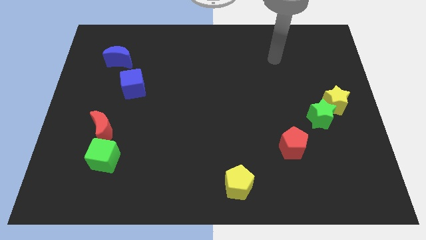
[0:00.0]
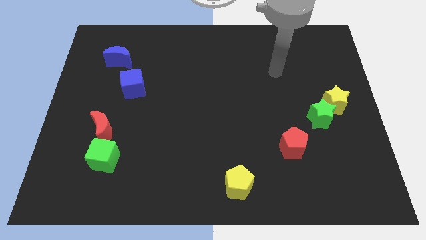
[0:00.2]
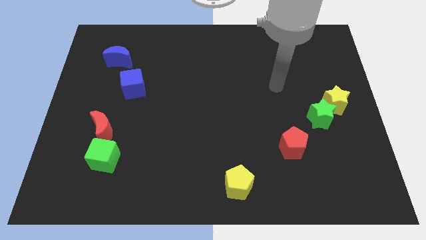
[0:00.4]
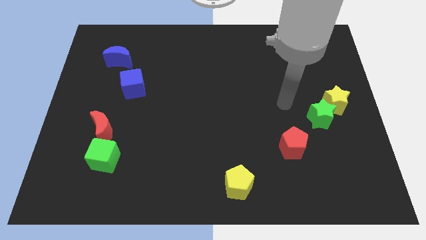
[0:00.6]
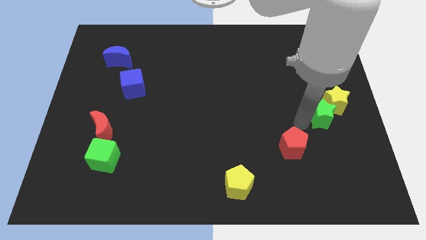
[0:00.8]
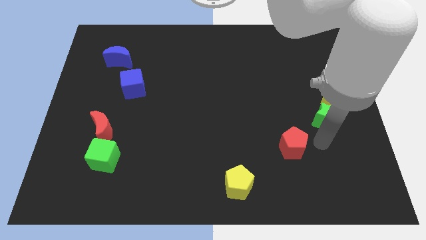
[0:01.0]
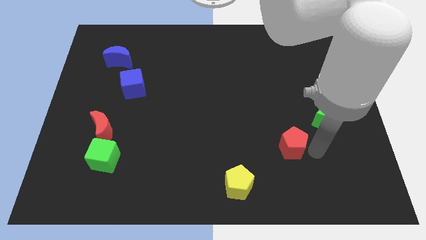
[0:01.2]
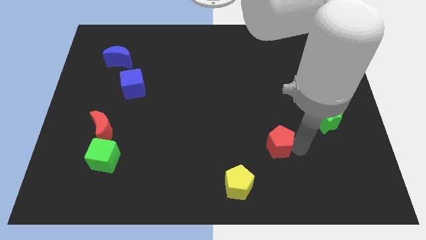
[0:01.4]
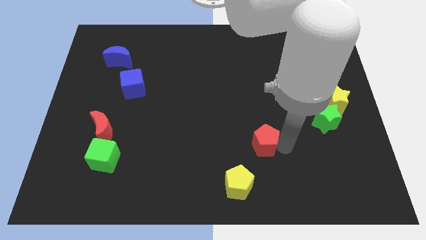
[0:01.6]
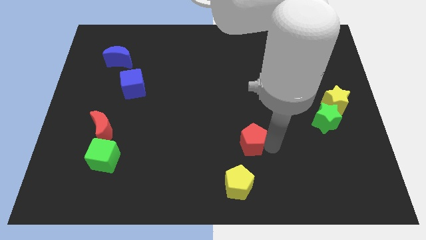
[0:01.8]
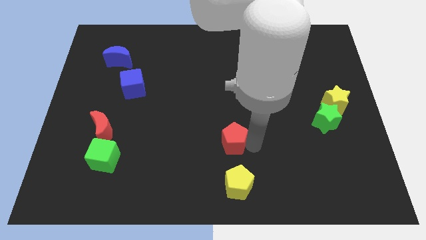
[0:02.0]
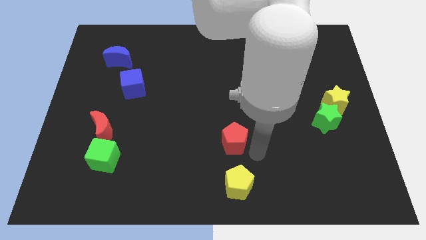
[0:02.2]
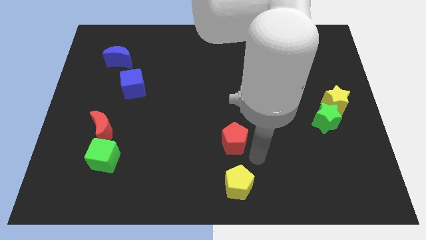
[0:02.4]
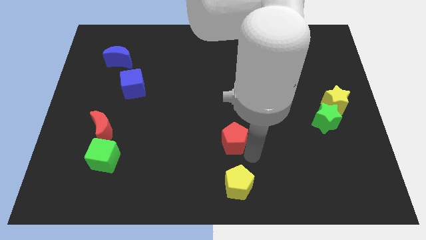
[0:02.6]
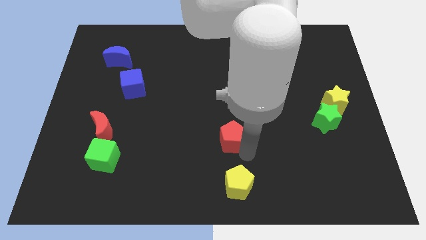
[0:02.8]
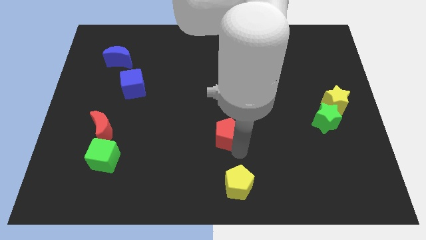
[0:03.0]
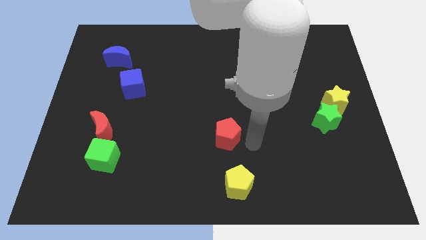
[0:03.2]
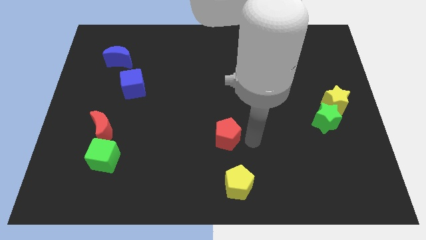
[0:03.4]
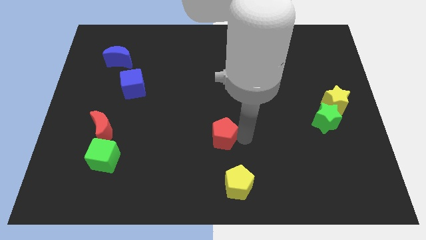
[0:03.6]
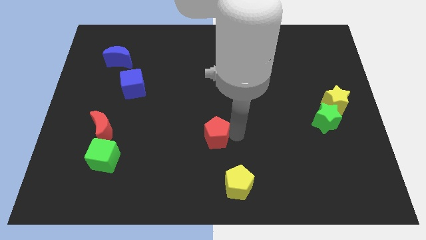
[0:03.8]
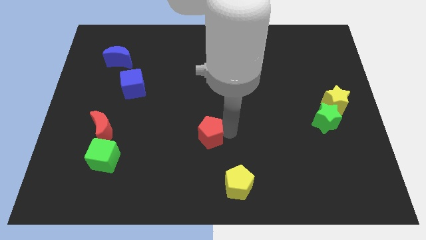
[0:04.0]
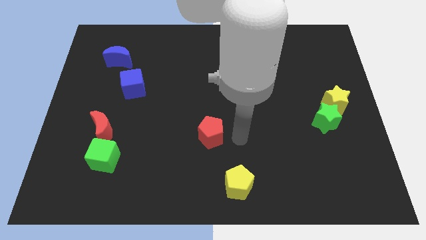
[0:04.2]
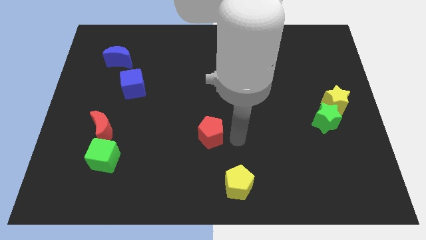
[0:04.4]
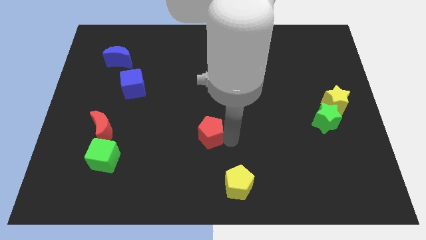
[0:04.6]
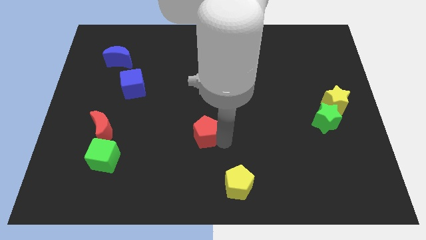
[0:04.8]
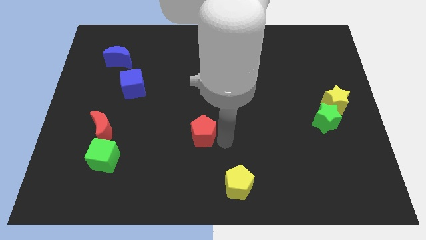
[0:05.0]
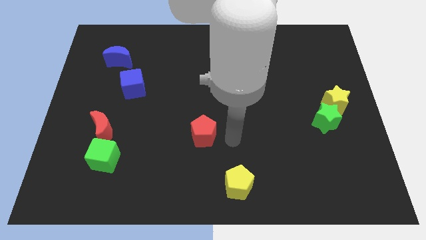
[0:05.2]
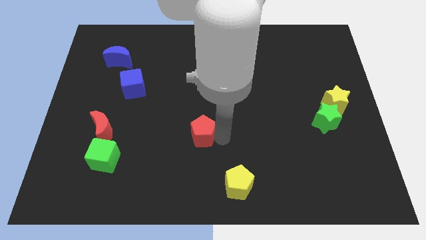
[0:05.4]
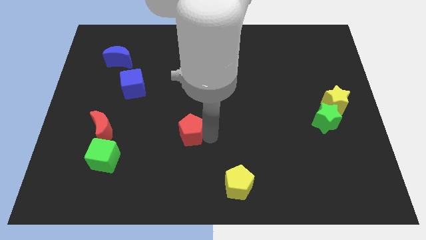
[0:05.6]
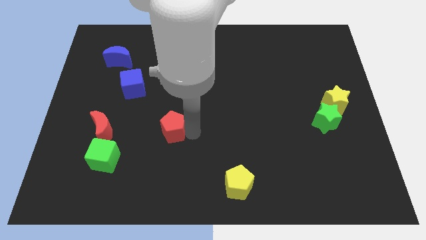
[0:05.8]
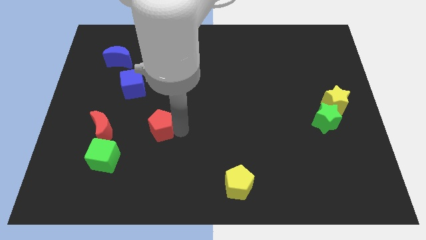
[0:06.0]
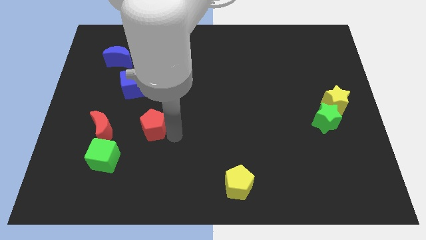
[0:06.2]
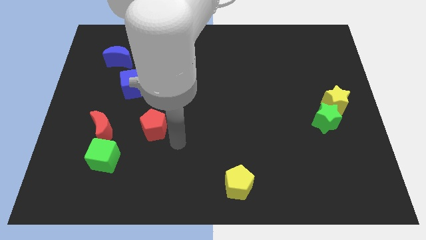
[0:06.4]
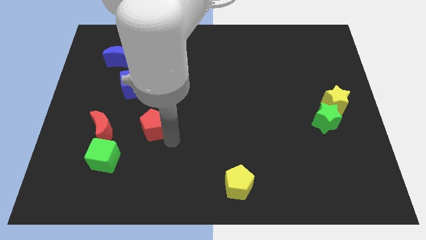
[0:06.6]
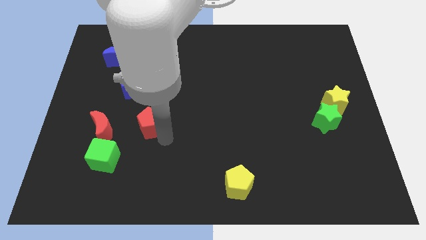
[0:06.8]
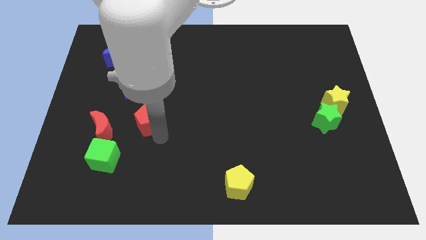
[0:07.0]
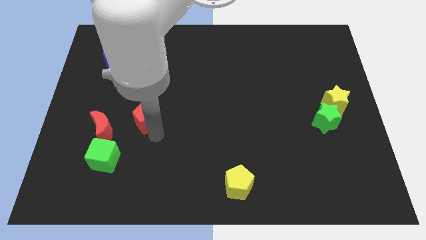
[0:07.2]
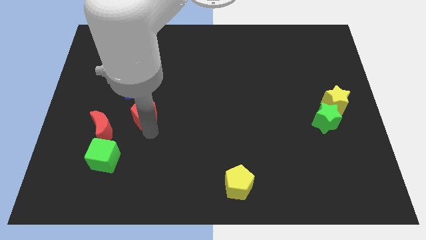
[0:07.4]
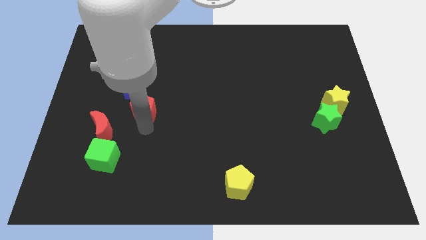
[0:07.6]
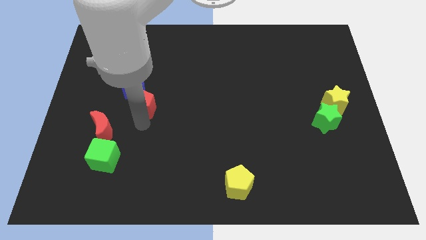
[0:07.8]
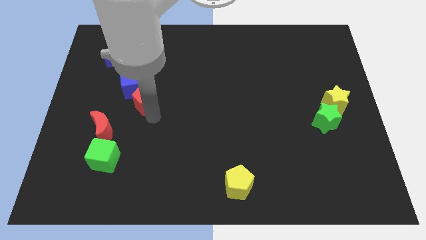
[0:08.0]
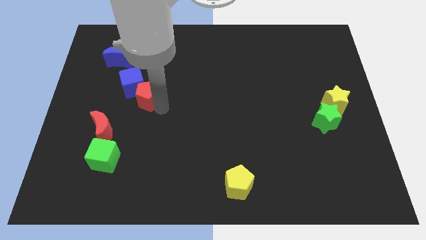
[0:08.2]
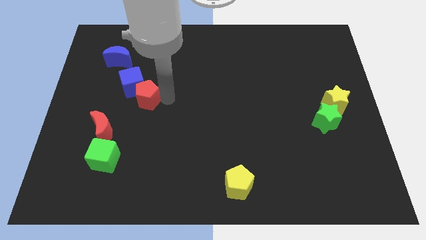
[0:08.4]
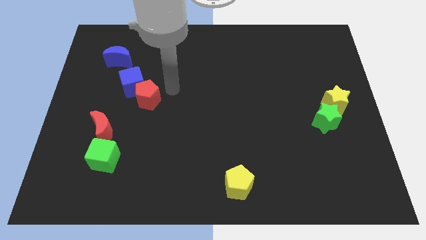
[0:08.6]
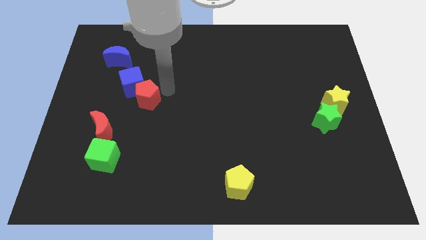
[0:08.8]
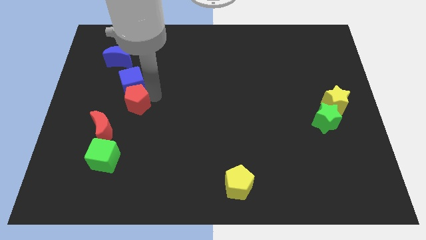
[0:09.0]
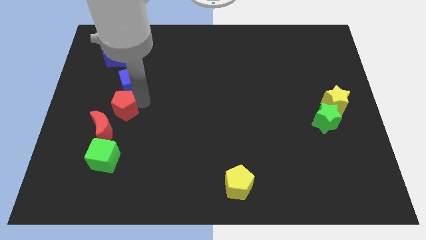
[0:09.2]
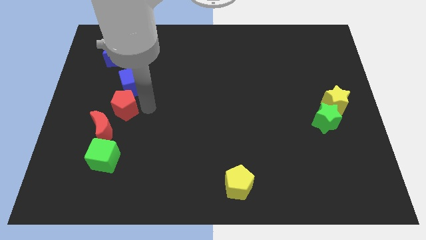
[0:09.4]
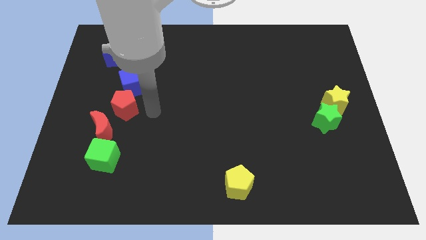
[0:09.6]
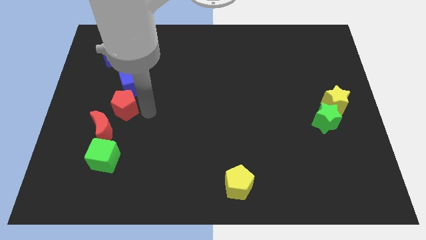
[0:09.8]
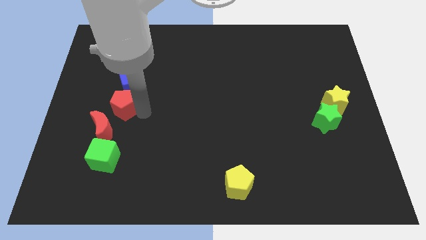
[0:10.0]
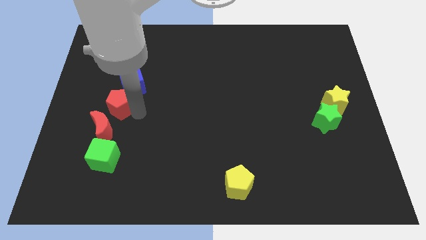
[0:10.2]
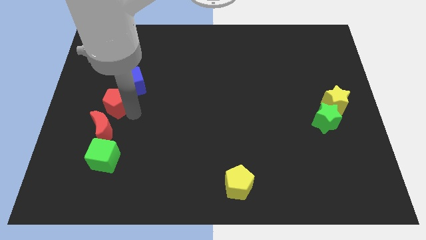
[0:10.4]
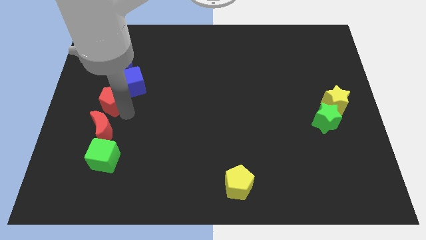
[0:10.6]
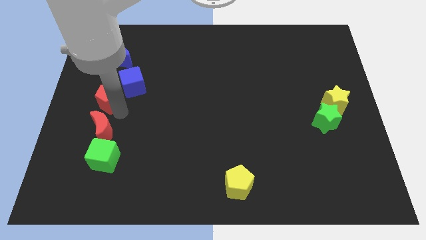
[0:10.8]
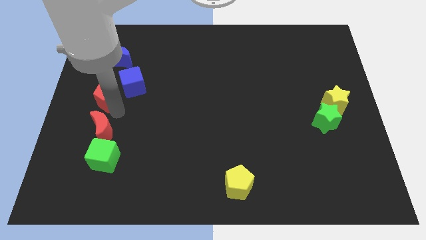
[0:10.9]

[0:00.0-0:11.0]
push the red pentagon to the center left

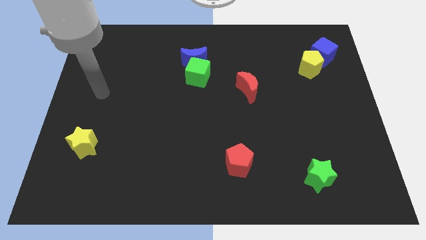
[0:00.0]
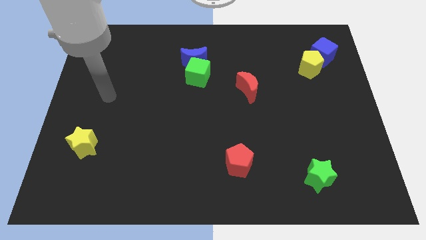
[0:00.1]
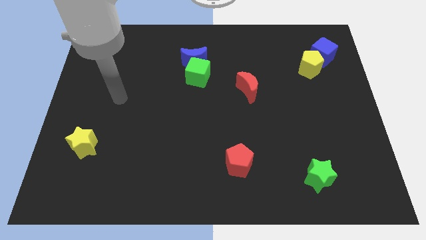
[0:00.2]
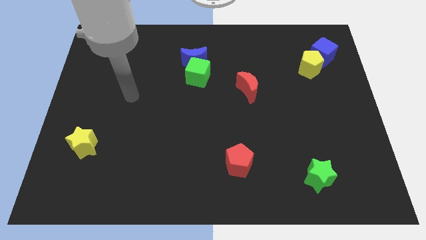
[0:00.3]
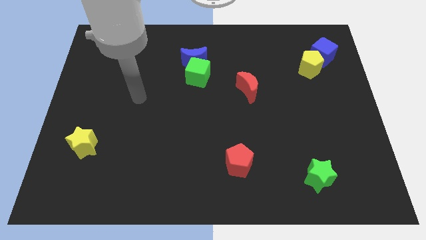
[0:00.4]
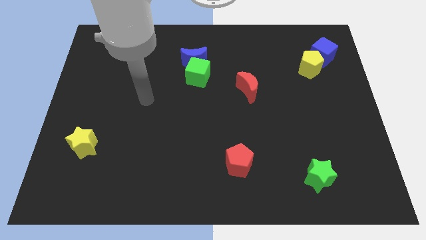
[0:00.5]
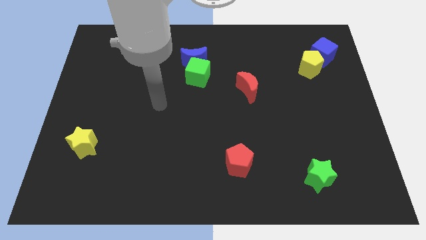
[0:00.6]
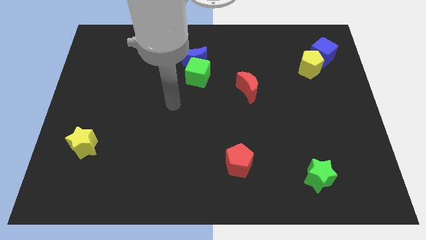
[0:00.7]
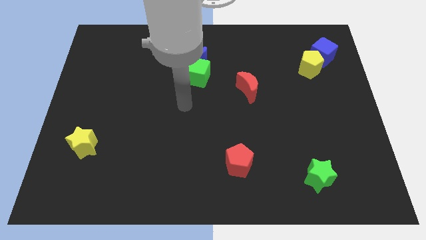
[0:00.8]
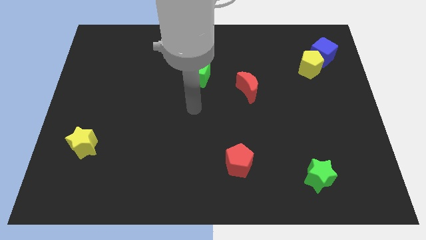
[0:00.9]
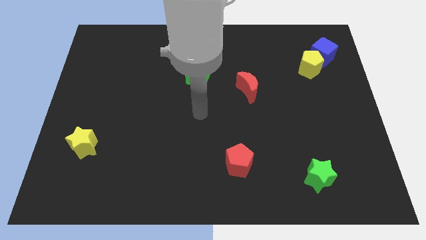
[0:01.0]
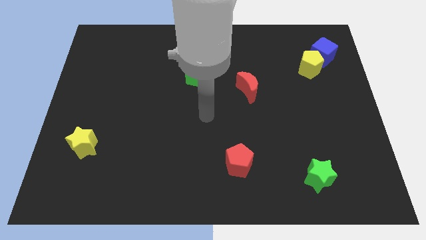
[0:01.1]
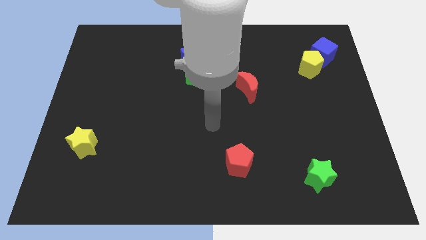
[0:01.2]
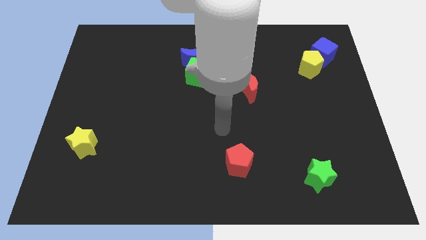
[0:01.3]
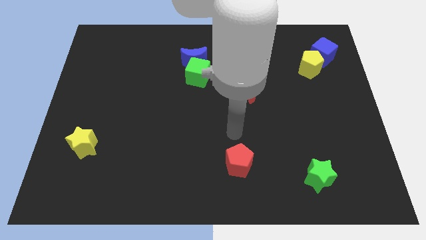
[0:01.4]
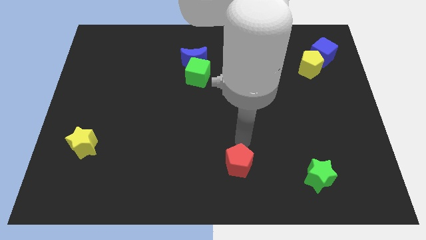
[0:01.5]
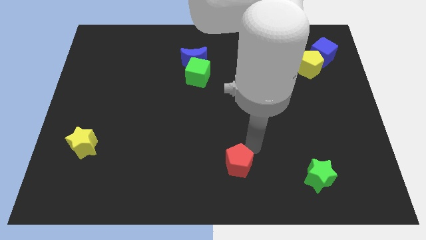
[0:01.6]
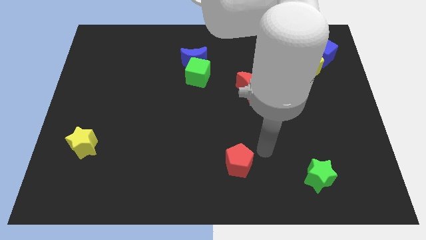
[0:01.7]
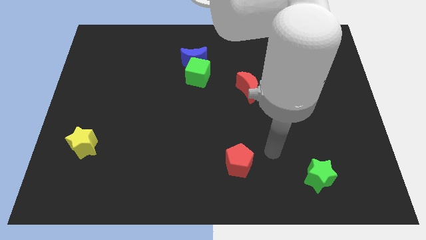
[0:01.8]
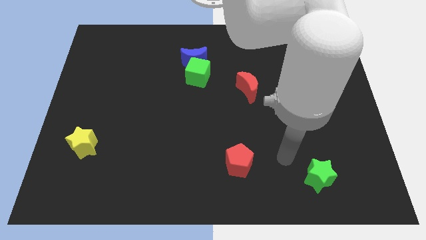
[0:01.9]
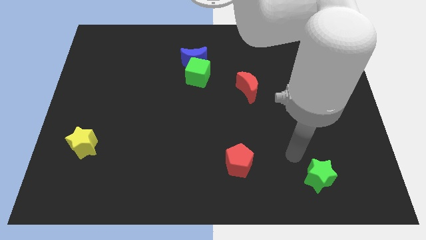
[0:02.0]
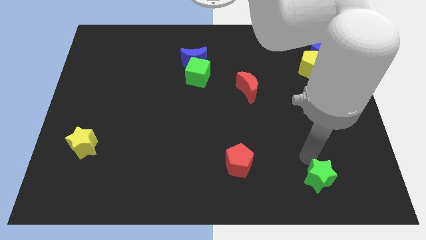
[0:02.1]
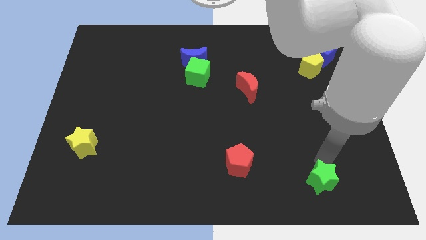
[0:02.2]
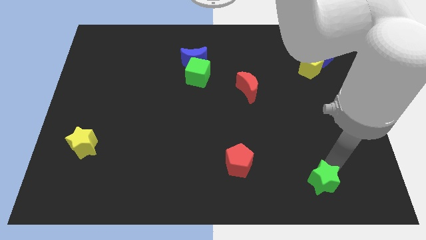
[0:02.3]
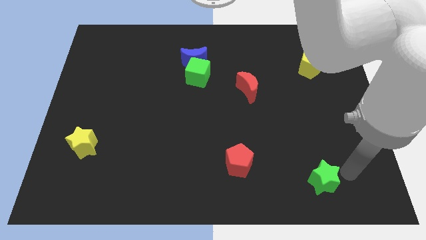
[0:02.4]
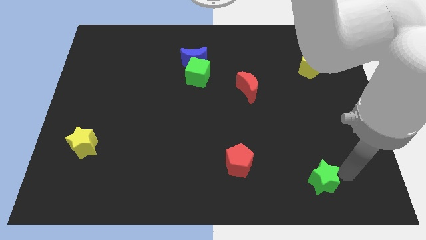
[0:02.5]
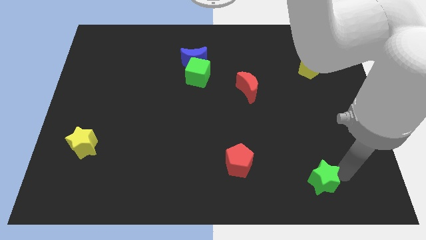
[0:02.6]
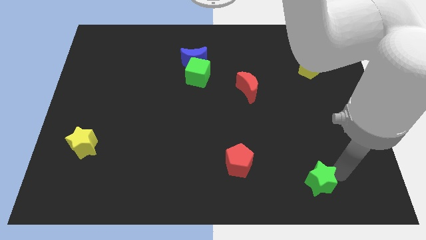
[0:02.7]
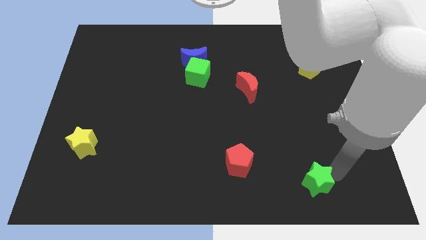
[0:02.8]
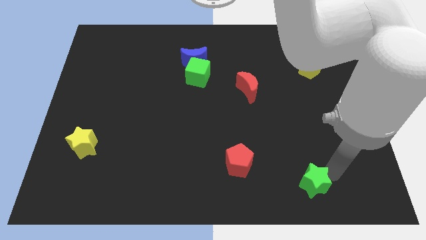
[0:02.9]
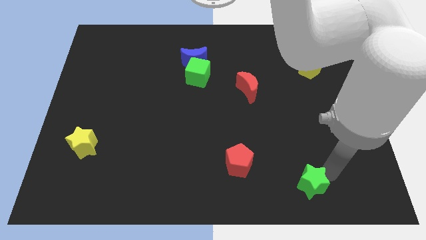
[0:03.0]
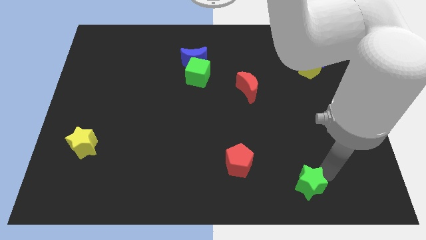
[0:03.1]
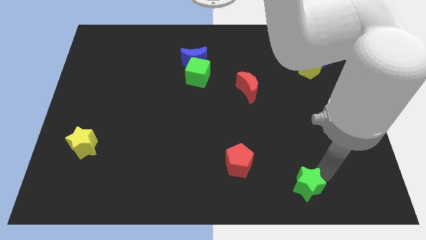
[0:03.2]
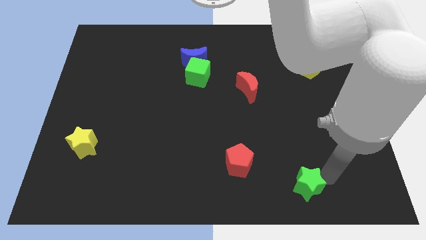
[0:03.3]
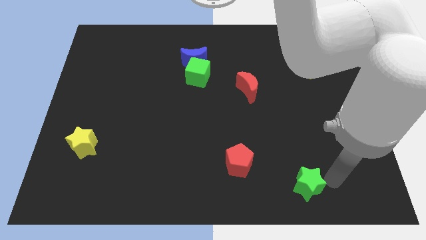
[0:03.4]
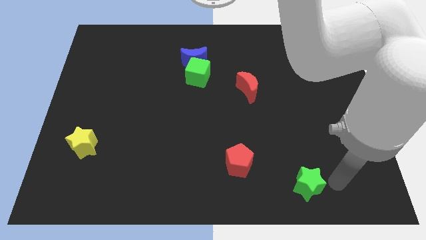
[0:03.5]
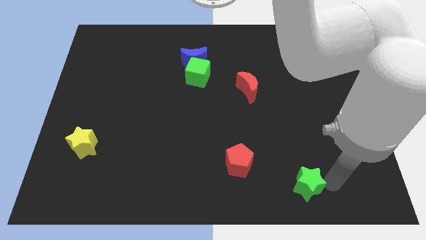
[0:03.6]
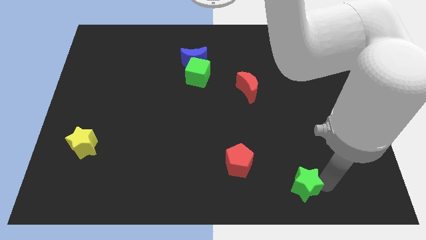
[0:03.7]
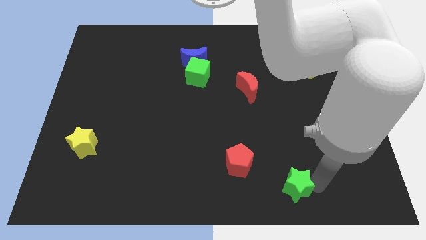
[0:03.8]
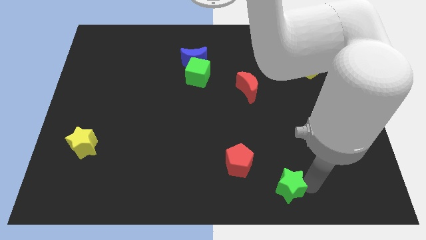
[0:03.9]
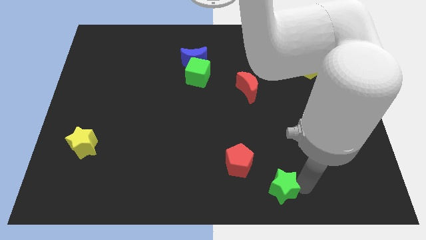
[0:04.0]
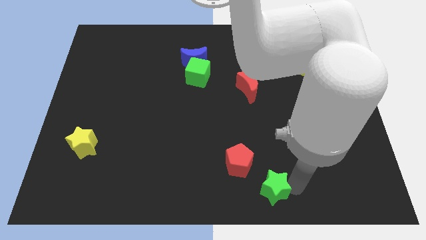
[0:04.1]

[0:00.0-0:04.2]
put the green star to the bottom
